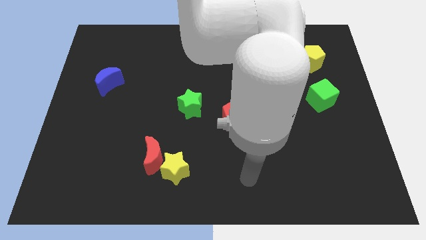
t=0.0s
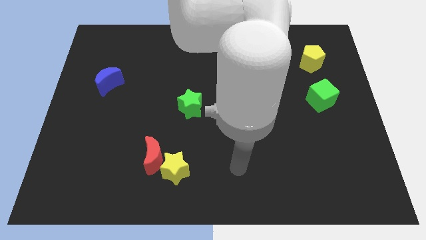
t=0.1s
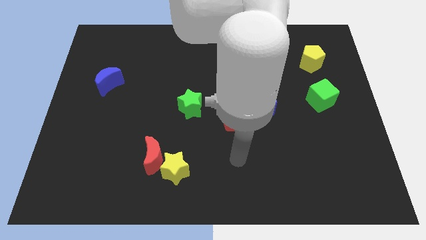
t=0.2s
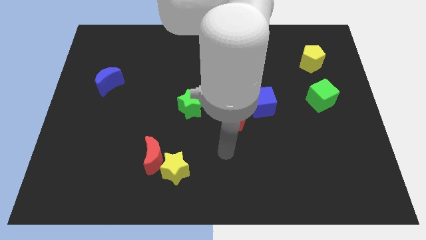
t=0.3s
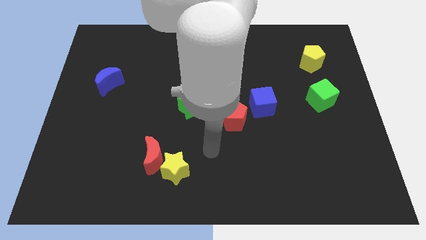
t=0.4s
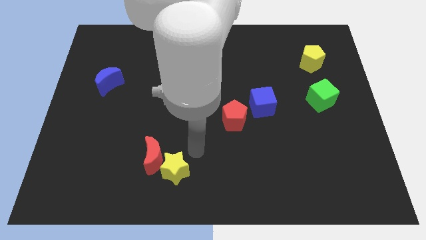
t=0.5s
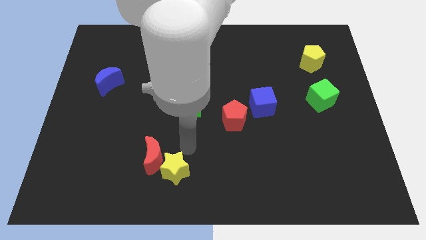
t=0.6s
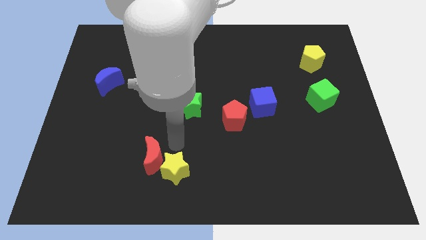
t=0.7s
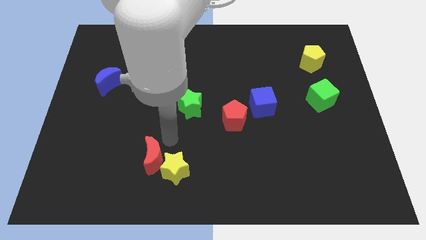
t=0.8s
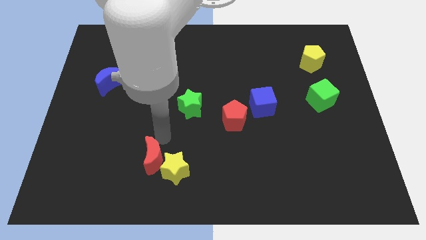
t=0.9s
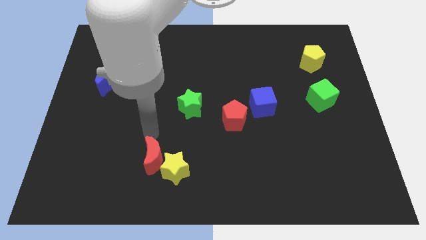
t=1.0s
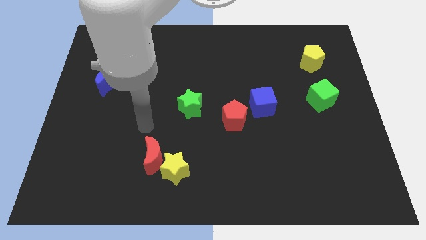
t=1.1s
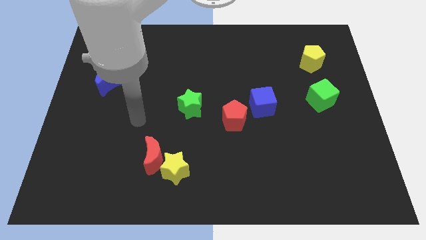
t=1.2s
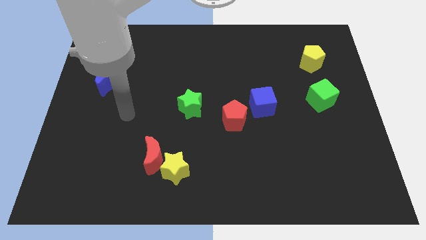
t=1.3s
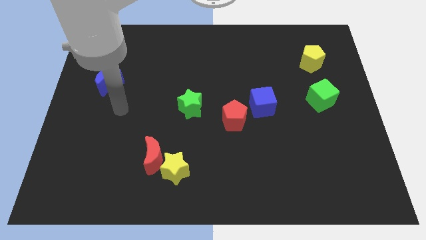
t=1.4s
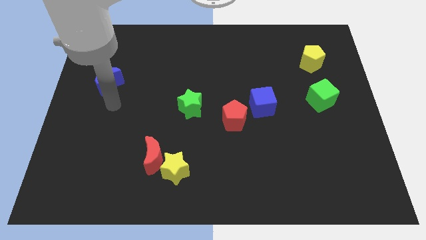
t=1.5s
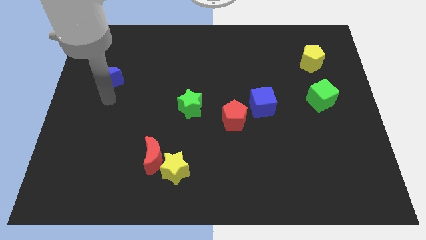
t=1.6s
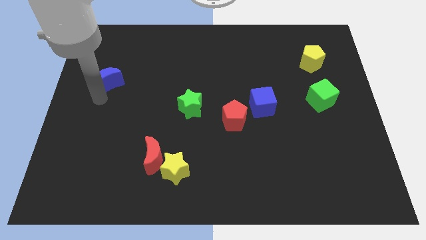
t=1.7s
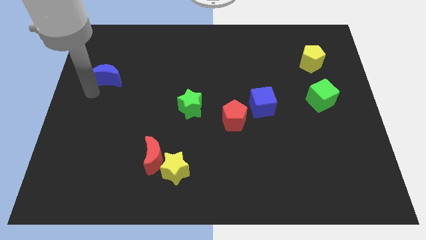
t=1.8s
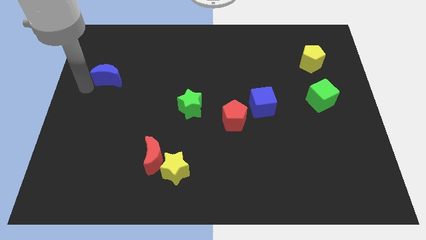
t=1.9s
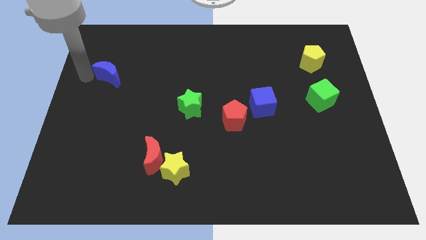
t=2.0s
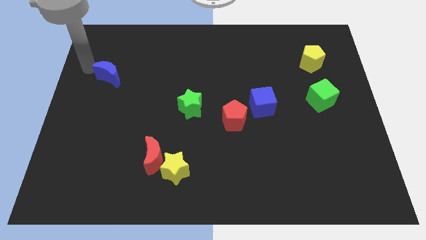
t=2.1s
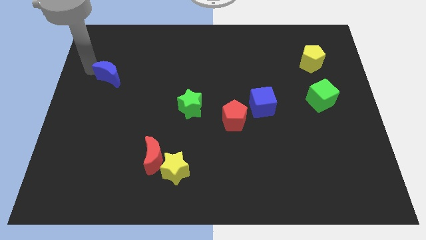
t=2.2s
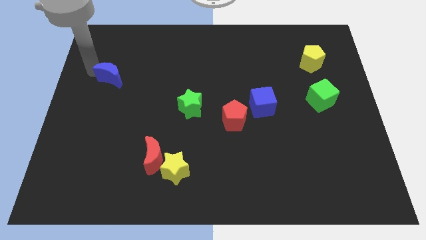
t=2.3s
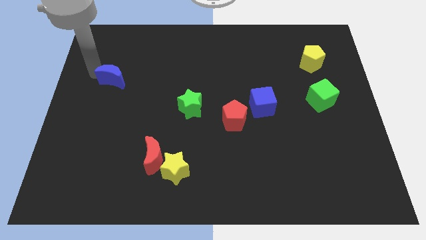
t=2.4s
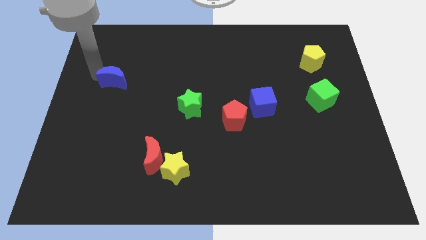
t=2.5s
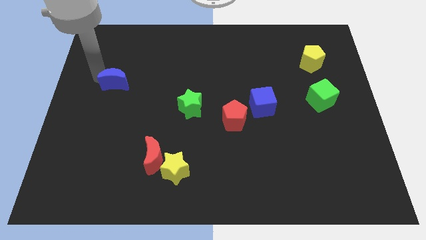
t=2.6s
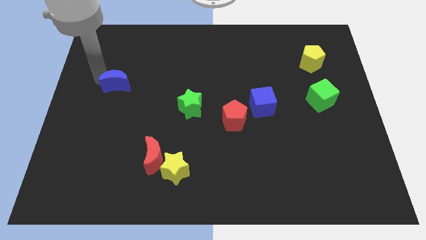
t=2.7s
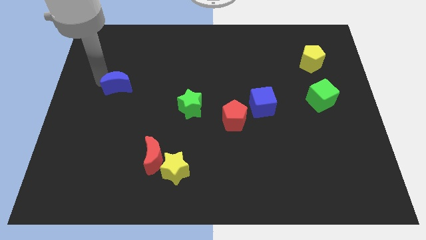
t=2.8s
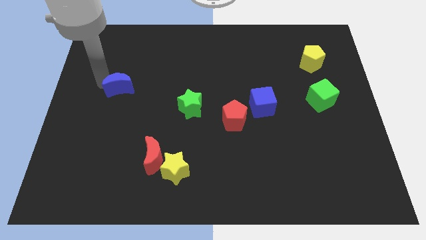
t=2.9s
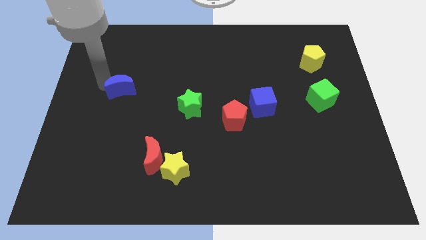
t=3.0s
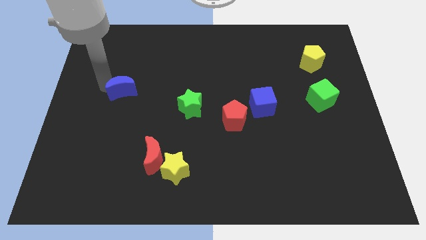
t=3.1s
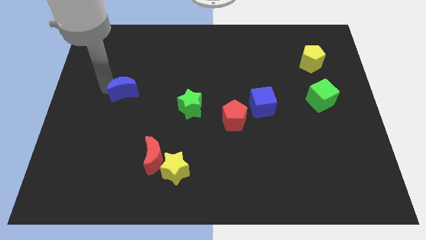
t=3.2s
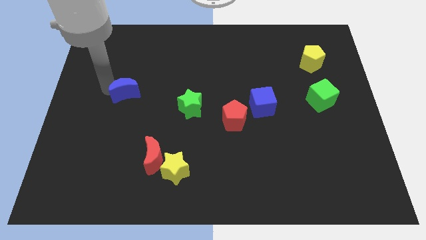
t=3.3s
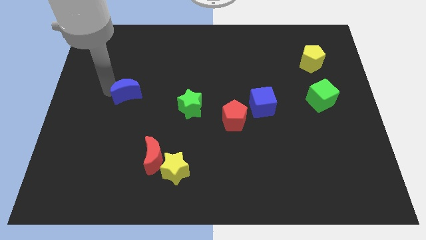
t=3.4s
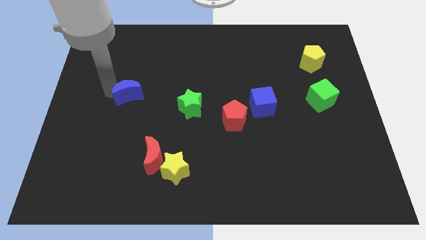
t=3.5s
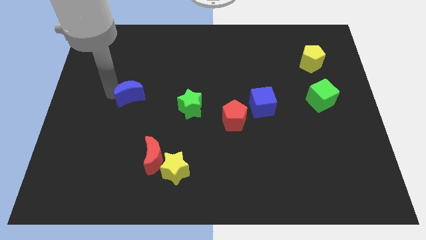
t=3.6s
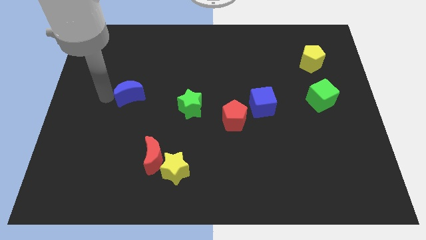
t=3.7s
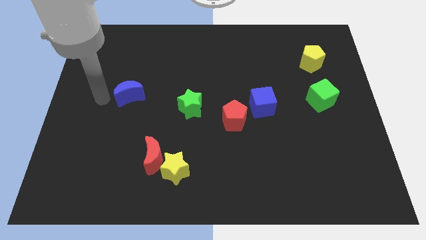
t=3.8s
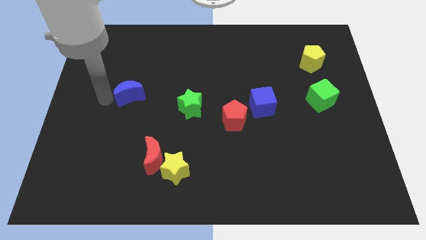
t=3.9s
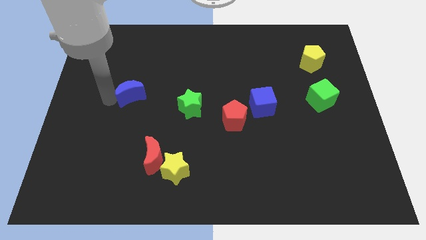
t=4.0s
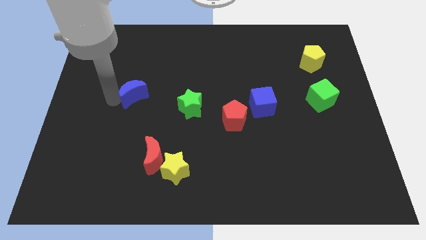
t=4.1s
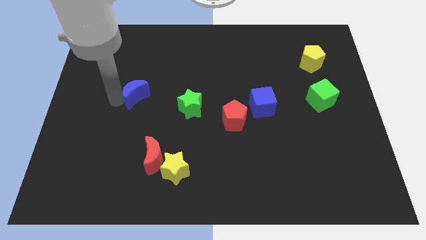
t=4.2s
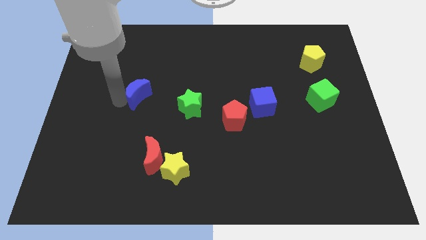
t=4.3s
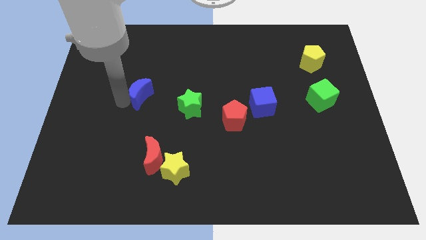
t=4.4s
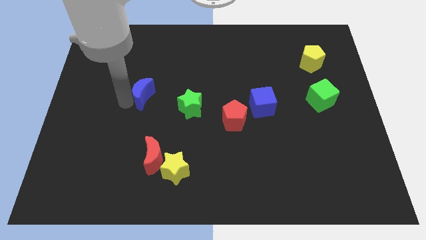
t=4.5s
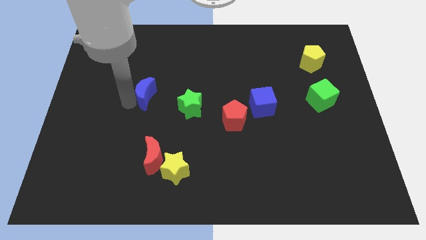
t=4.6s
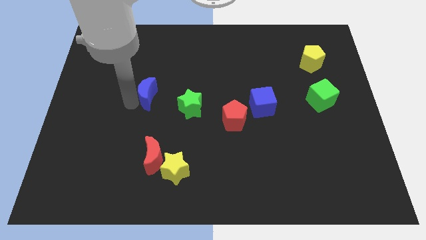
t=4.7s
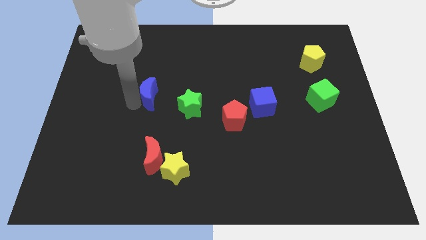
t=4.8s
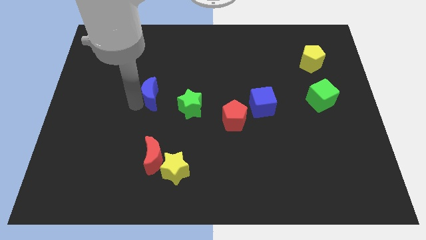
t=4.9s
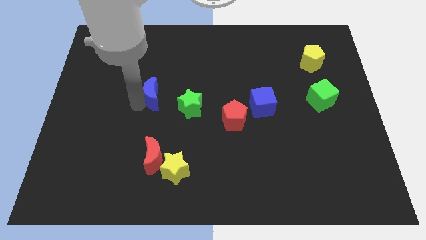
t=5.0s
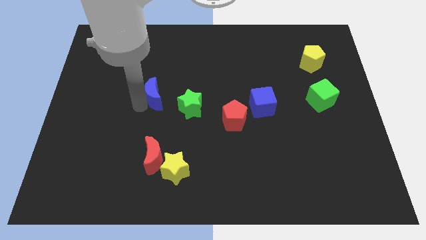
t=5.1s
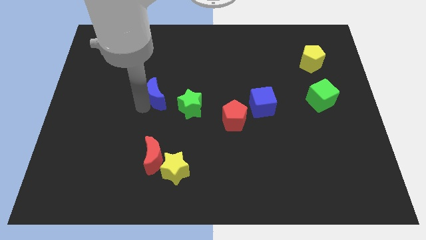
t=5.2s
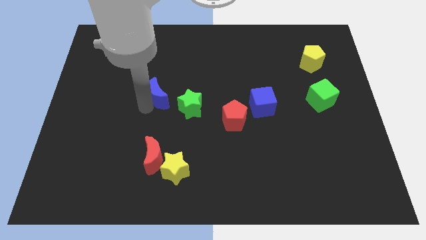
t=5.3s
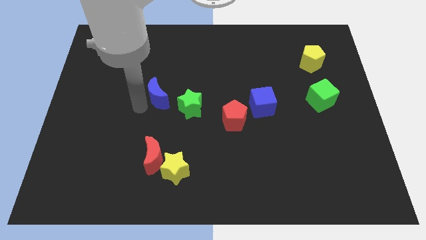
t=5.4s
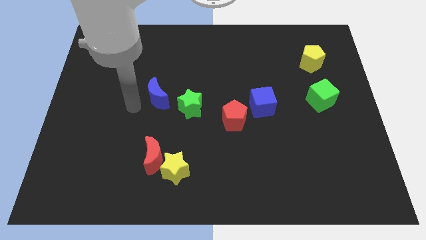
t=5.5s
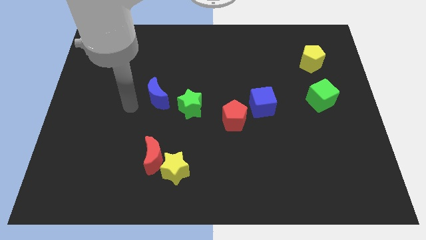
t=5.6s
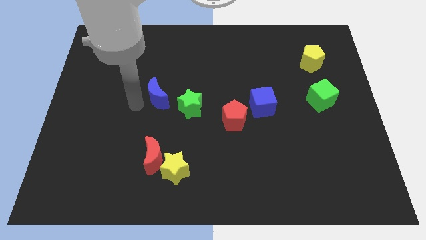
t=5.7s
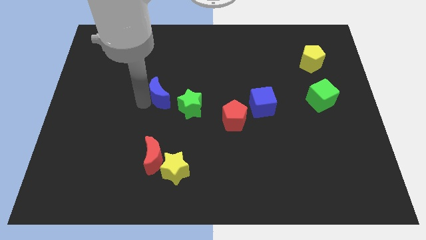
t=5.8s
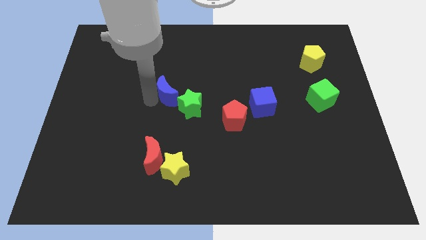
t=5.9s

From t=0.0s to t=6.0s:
move the blue moon to the center
